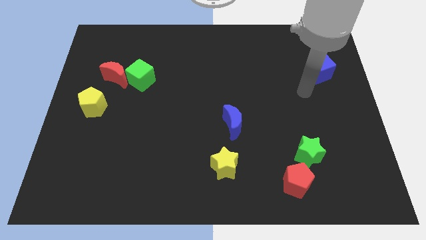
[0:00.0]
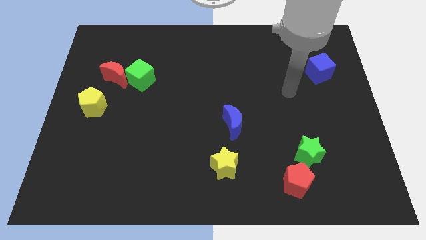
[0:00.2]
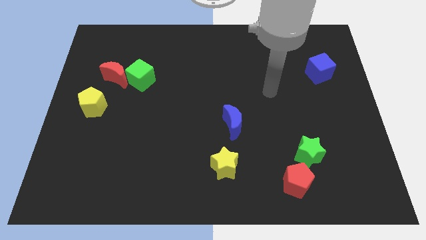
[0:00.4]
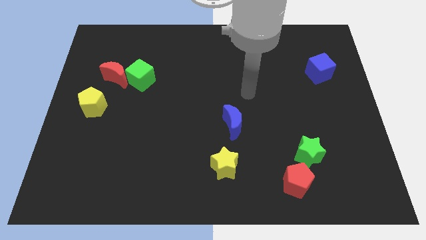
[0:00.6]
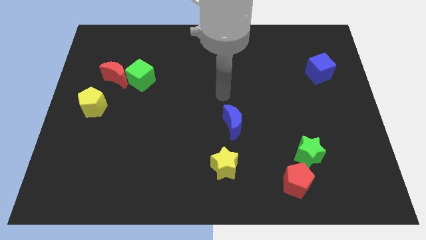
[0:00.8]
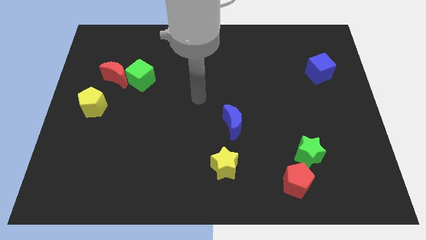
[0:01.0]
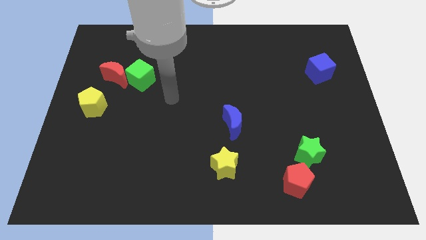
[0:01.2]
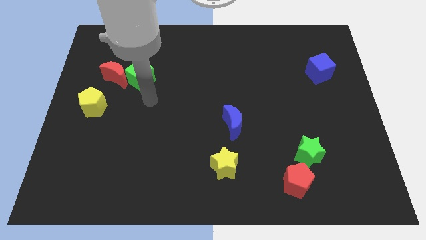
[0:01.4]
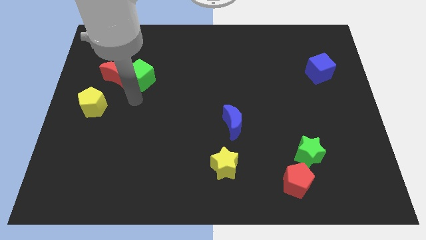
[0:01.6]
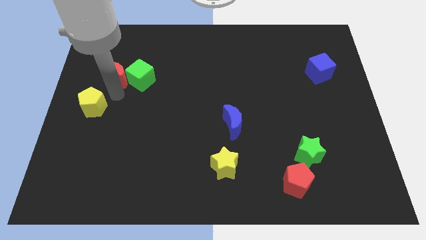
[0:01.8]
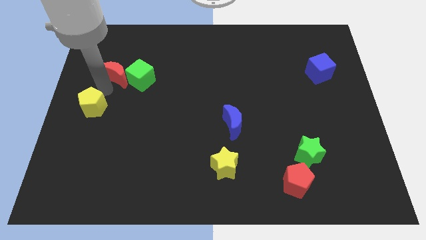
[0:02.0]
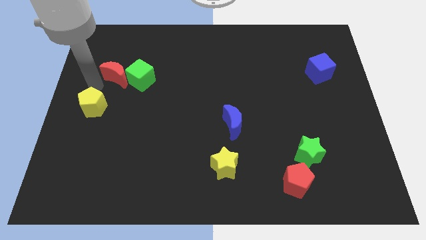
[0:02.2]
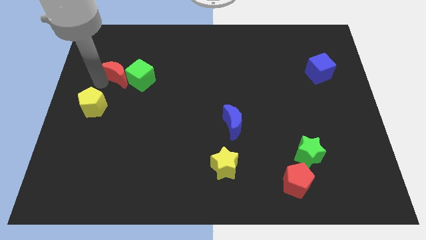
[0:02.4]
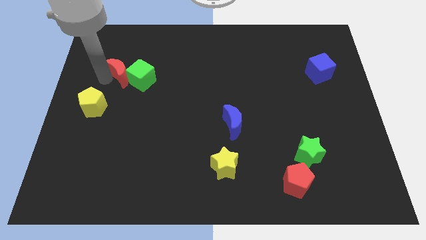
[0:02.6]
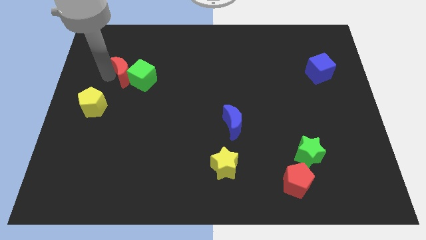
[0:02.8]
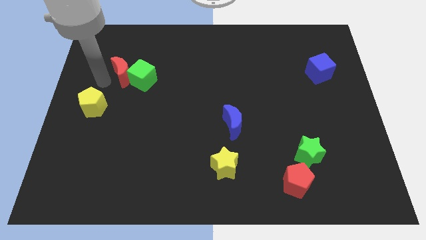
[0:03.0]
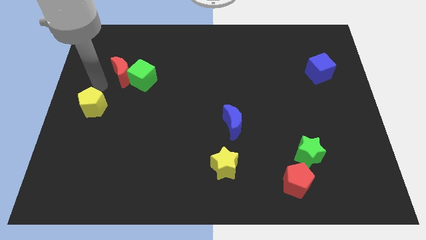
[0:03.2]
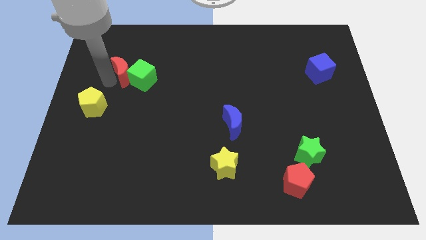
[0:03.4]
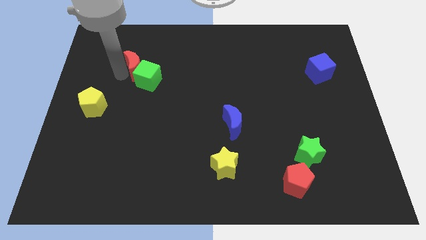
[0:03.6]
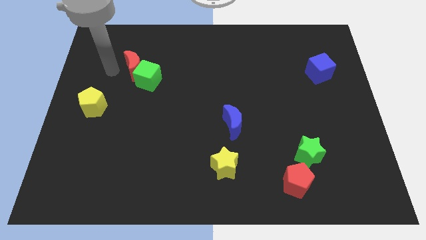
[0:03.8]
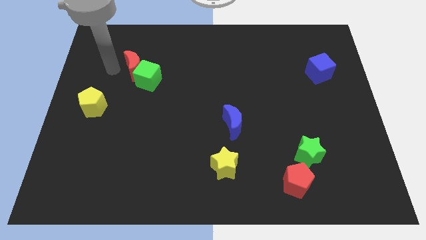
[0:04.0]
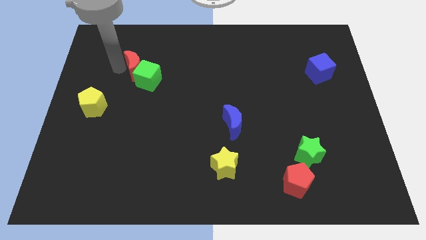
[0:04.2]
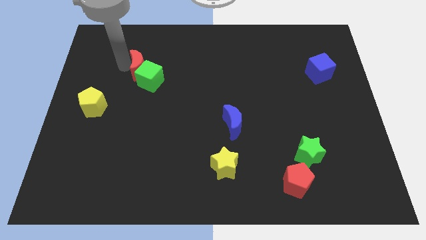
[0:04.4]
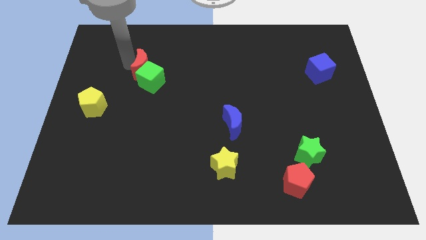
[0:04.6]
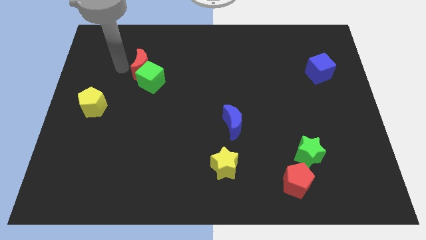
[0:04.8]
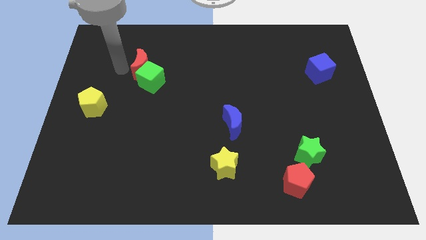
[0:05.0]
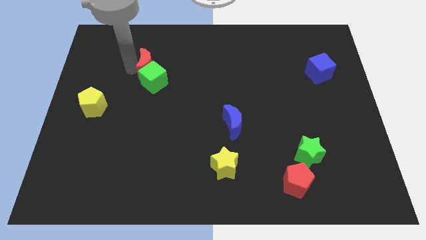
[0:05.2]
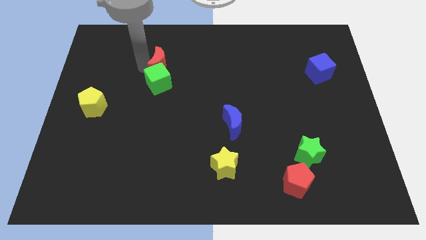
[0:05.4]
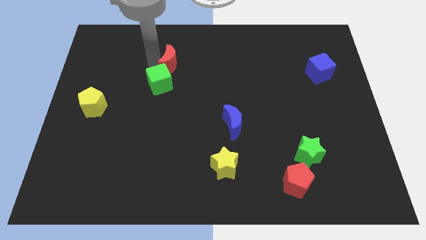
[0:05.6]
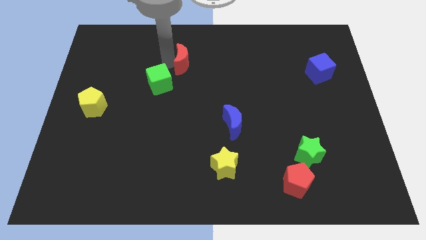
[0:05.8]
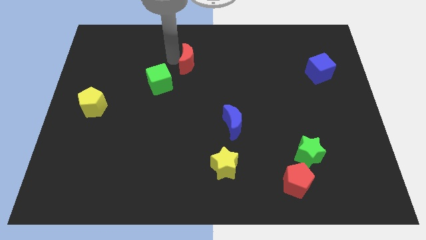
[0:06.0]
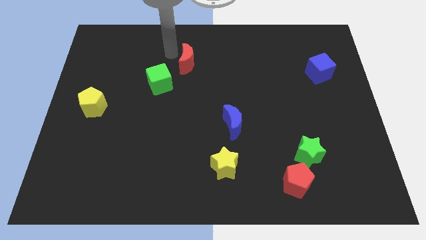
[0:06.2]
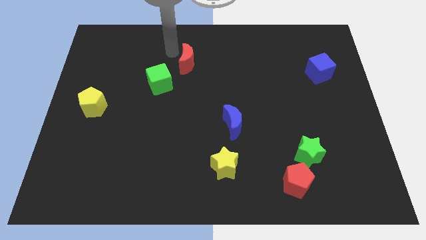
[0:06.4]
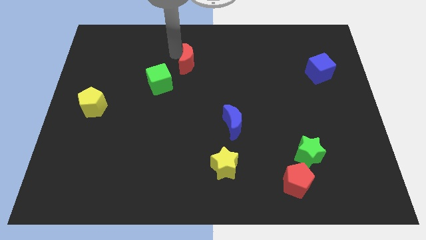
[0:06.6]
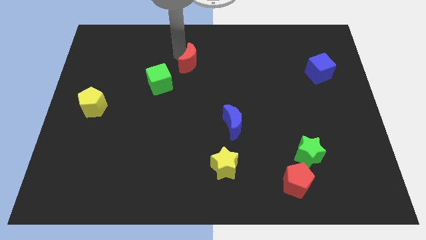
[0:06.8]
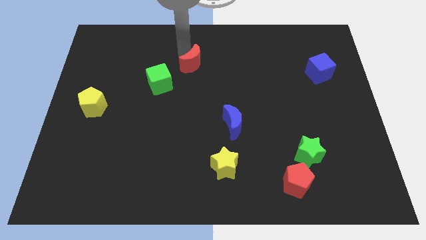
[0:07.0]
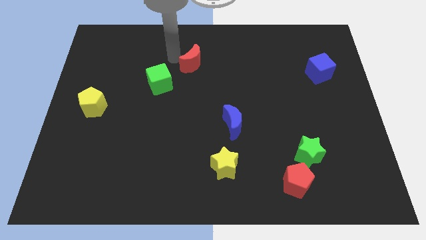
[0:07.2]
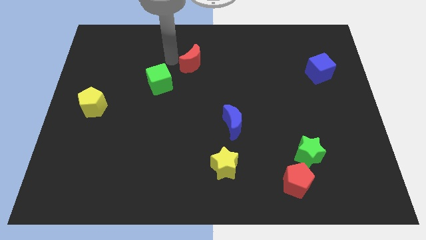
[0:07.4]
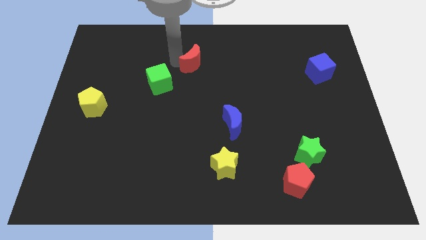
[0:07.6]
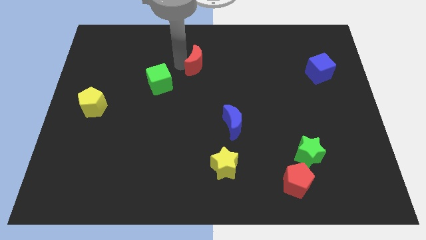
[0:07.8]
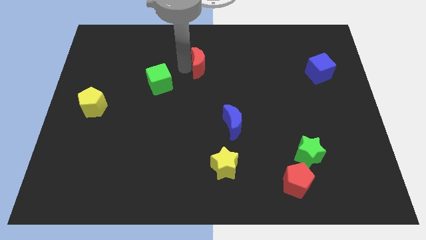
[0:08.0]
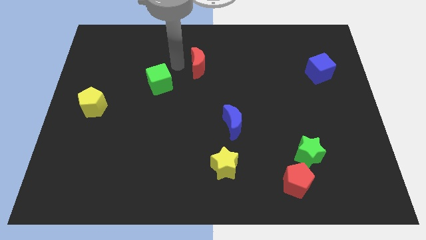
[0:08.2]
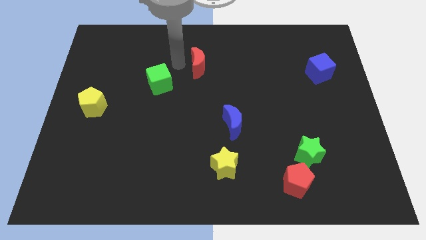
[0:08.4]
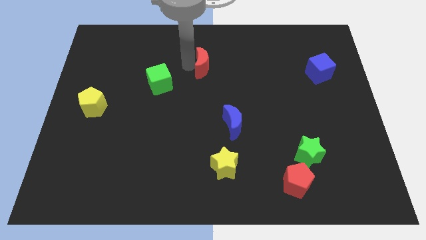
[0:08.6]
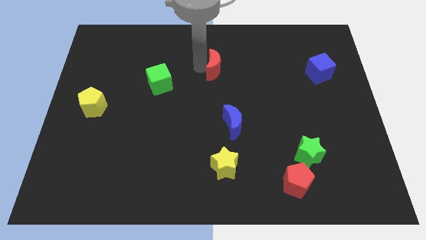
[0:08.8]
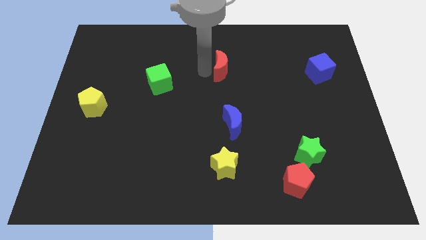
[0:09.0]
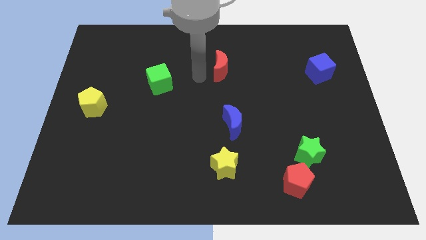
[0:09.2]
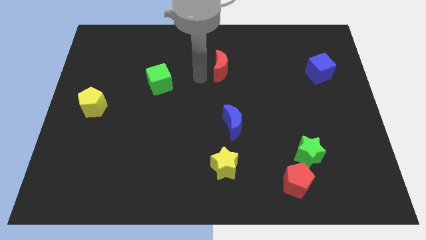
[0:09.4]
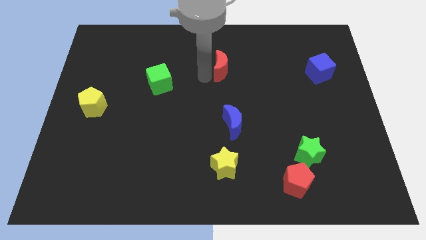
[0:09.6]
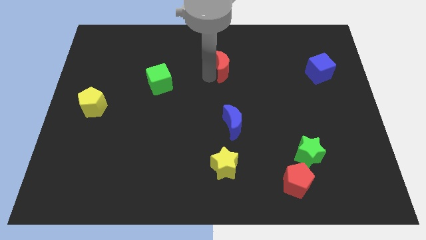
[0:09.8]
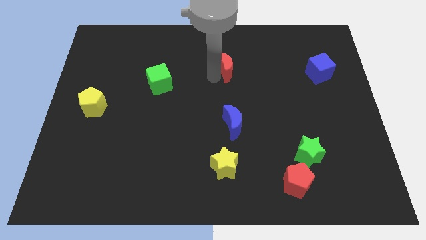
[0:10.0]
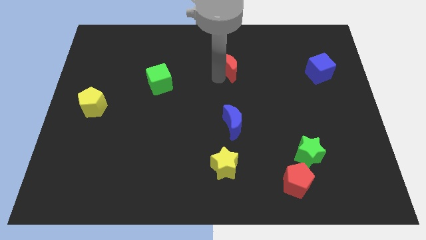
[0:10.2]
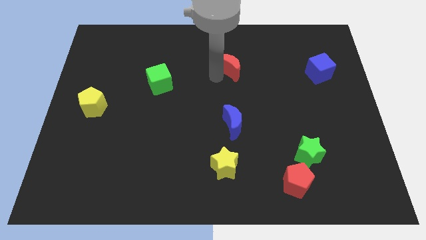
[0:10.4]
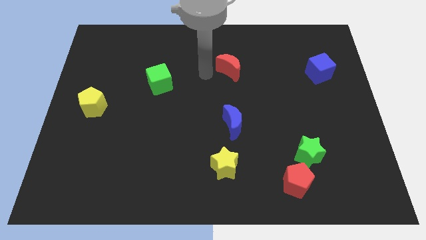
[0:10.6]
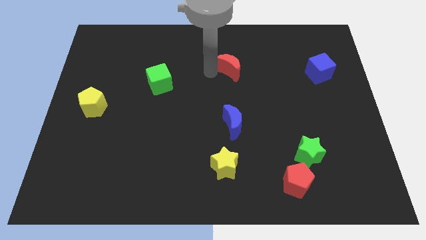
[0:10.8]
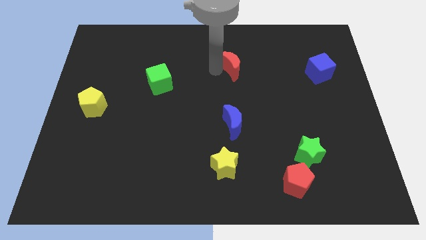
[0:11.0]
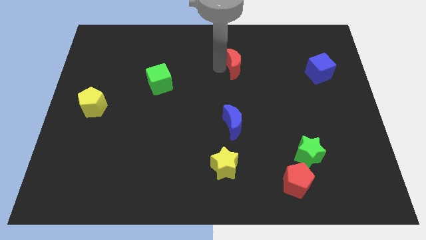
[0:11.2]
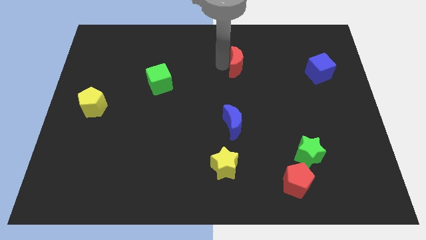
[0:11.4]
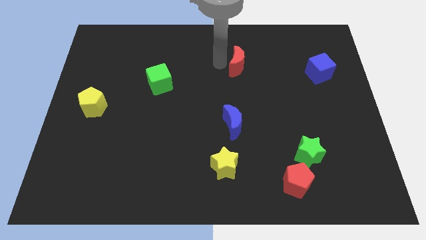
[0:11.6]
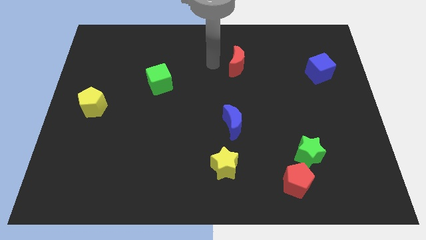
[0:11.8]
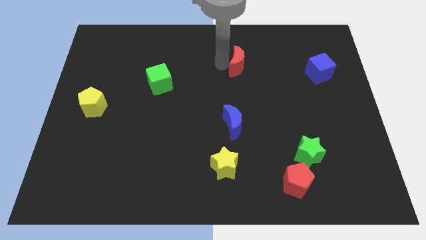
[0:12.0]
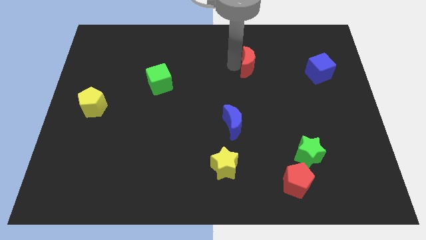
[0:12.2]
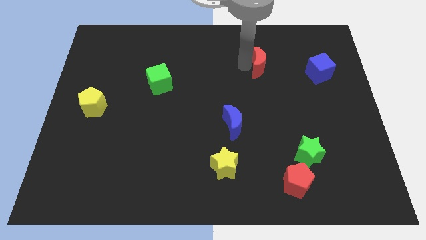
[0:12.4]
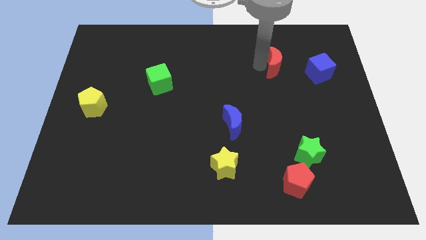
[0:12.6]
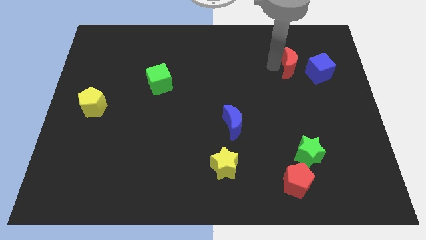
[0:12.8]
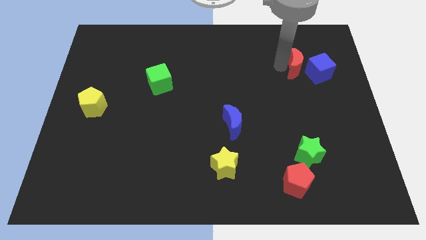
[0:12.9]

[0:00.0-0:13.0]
put the red moon to the blue cube

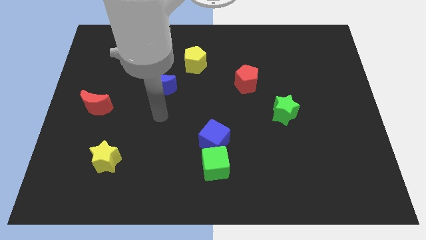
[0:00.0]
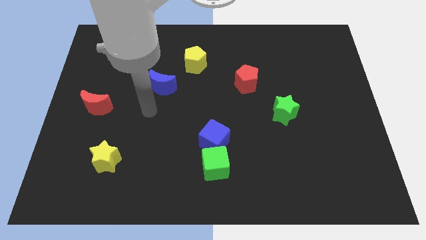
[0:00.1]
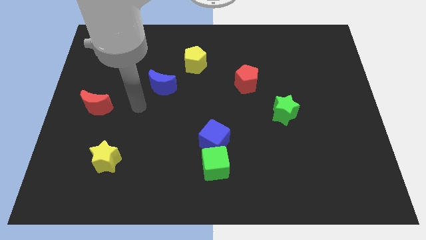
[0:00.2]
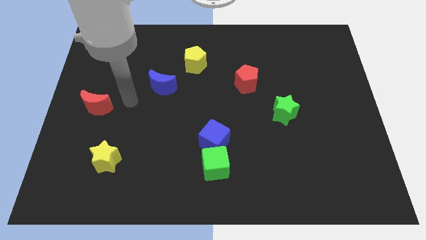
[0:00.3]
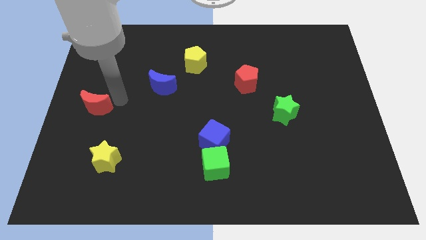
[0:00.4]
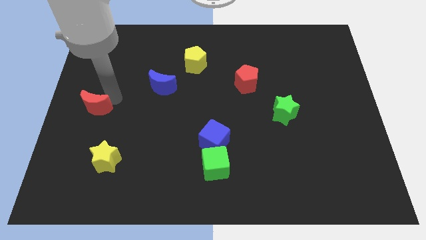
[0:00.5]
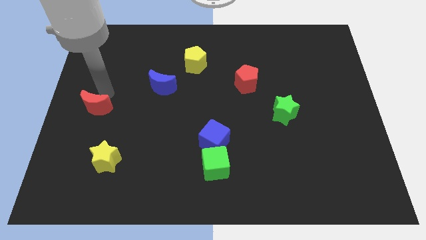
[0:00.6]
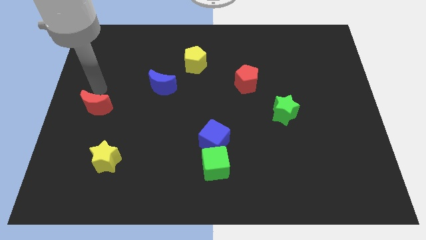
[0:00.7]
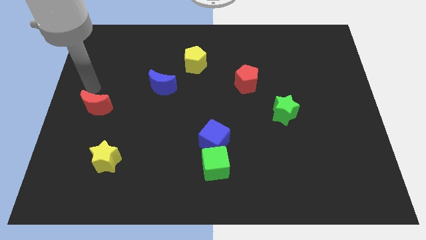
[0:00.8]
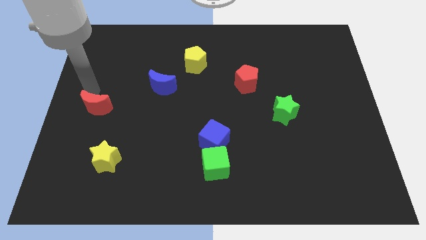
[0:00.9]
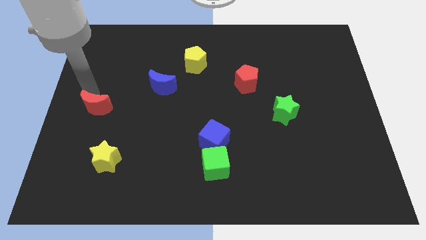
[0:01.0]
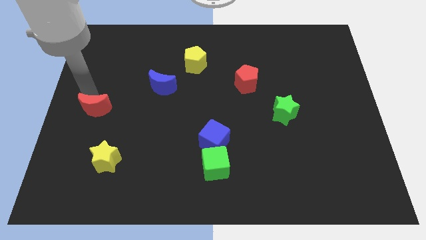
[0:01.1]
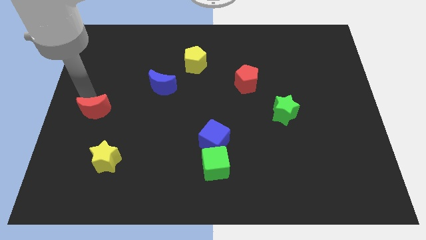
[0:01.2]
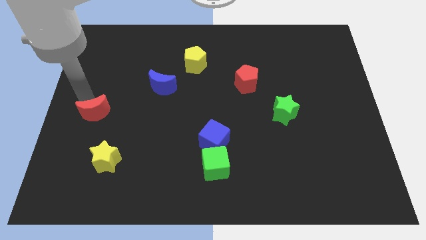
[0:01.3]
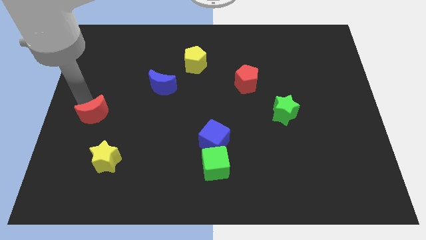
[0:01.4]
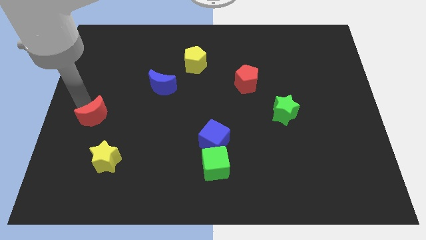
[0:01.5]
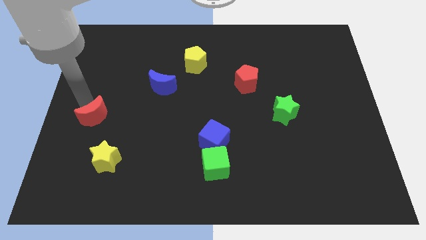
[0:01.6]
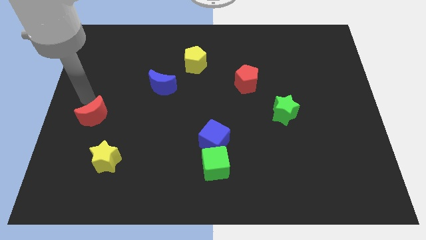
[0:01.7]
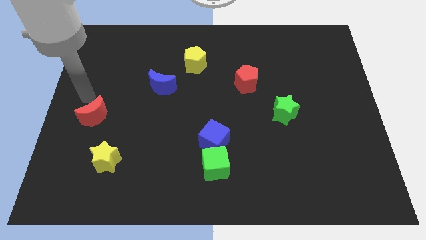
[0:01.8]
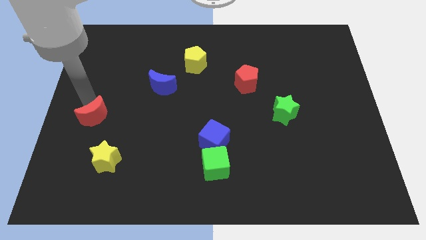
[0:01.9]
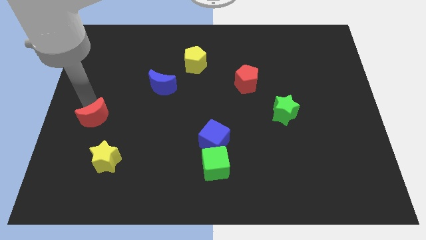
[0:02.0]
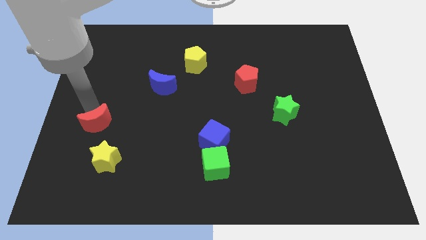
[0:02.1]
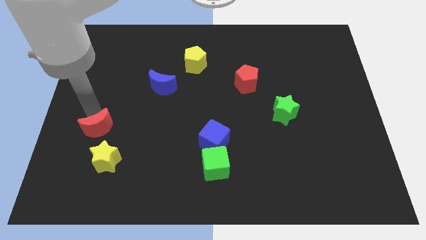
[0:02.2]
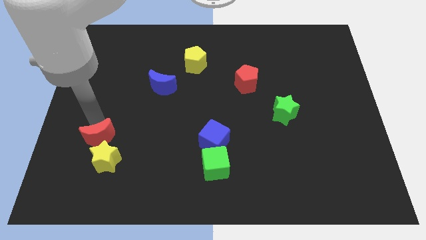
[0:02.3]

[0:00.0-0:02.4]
slide the red moon close to the yellow star
